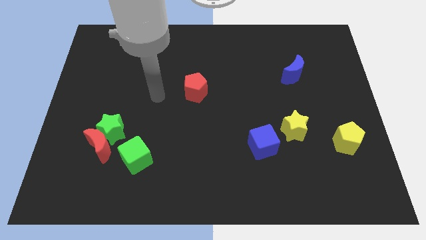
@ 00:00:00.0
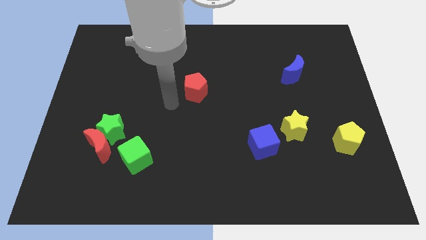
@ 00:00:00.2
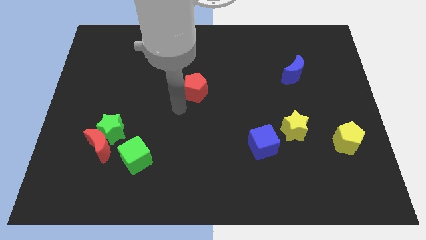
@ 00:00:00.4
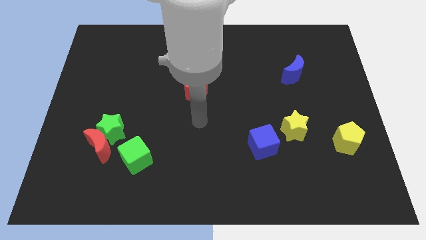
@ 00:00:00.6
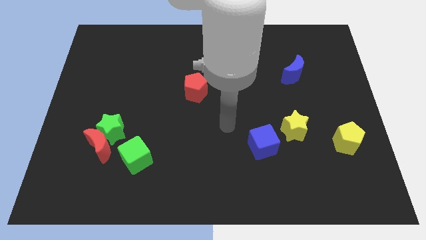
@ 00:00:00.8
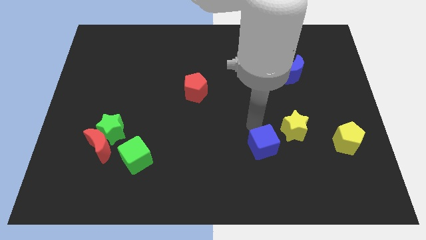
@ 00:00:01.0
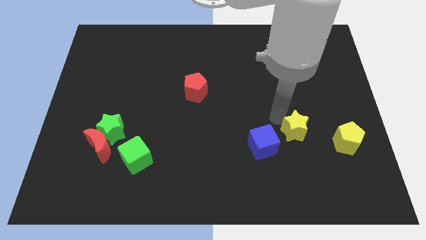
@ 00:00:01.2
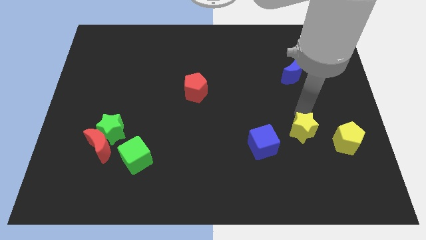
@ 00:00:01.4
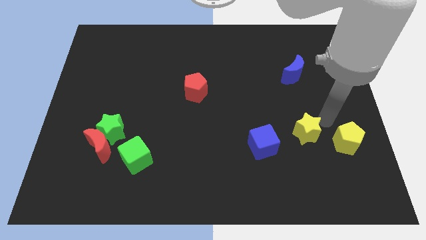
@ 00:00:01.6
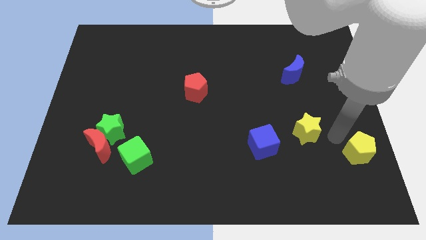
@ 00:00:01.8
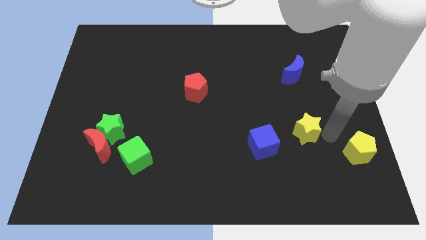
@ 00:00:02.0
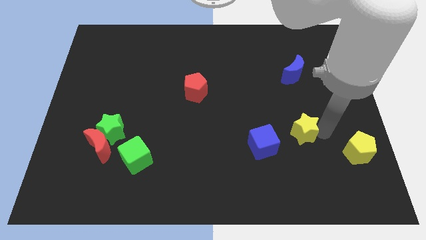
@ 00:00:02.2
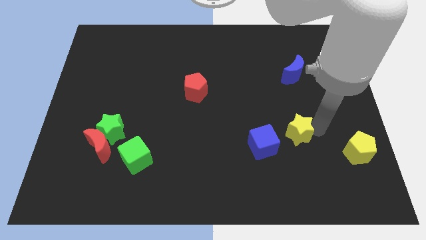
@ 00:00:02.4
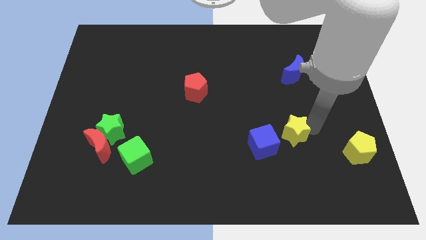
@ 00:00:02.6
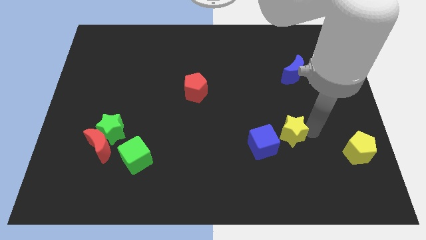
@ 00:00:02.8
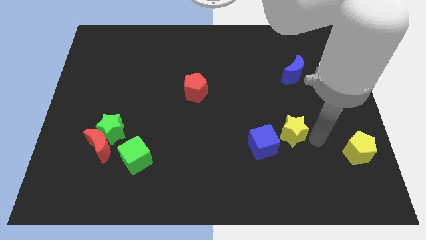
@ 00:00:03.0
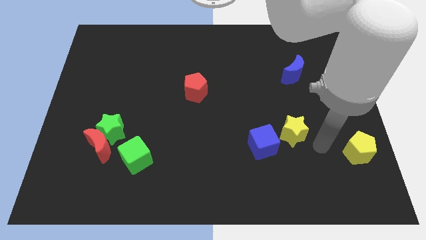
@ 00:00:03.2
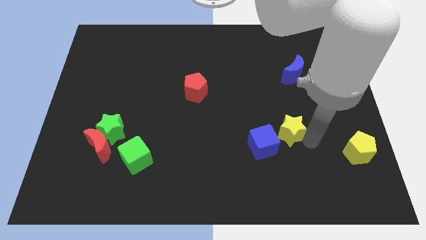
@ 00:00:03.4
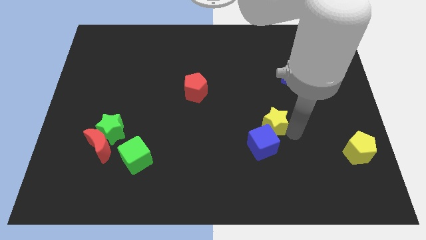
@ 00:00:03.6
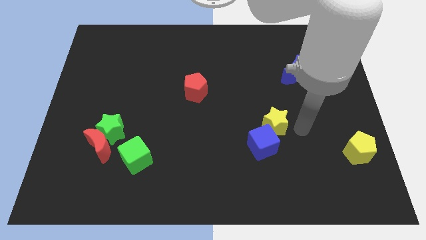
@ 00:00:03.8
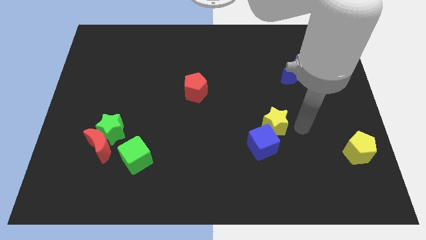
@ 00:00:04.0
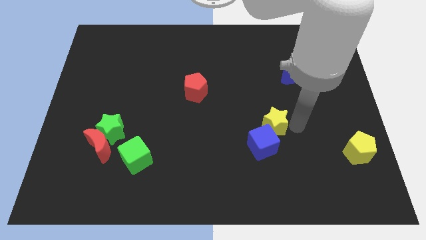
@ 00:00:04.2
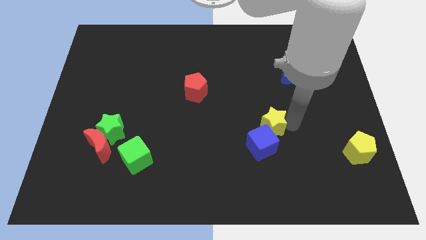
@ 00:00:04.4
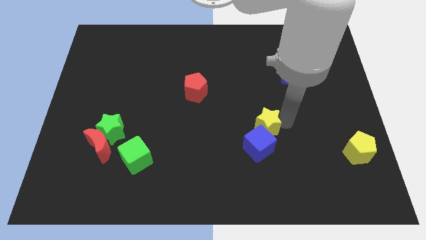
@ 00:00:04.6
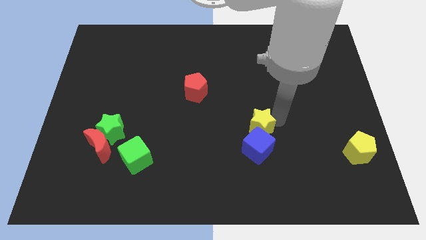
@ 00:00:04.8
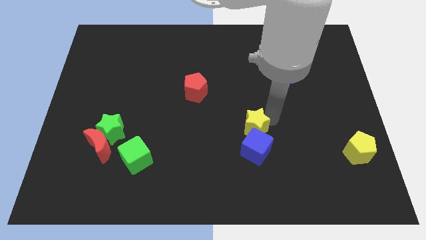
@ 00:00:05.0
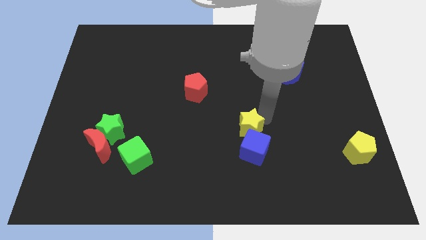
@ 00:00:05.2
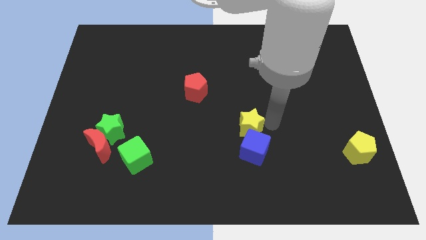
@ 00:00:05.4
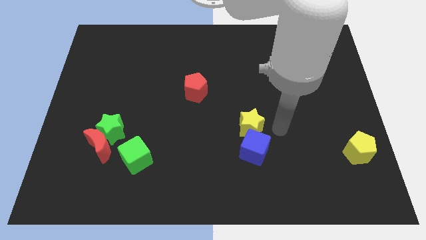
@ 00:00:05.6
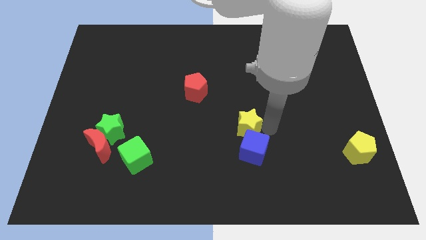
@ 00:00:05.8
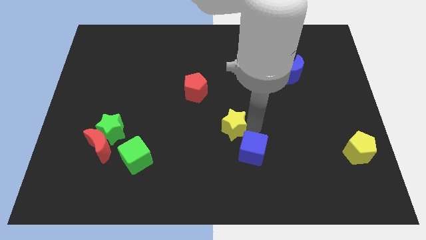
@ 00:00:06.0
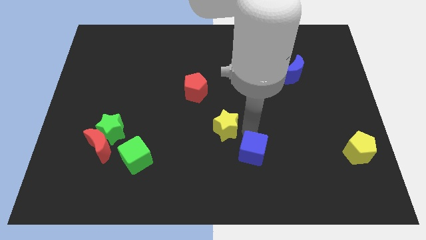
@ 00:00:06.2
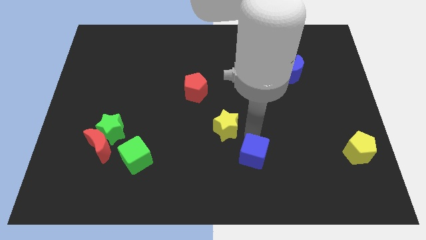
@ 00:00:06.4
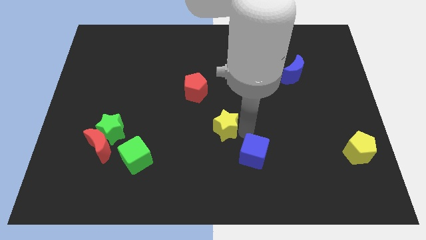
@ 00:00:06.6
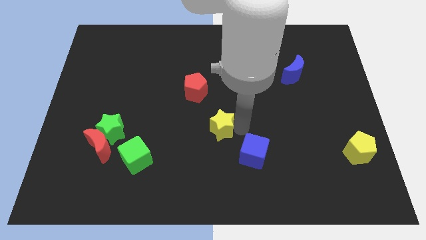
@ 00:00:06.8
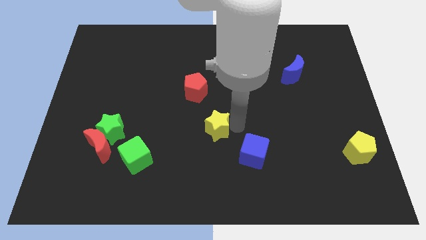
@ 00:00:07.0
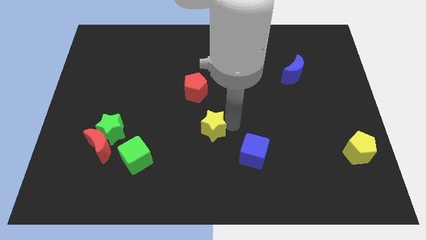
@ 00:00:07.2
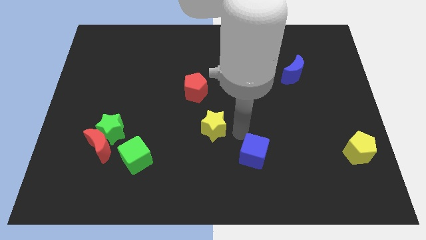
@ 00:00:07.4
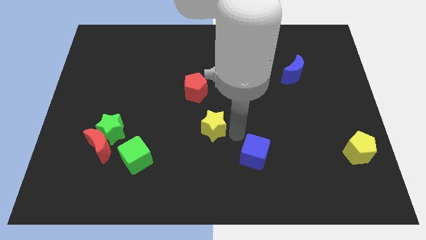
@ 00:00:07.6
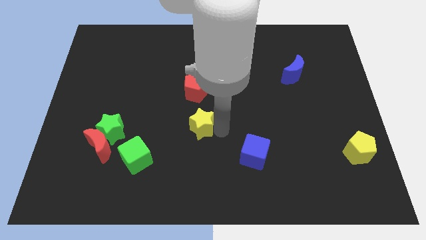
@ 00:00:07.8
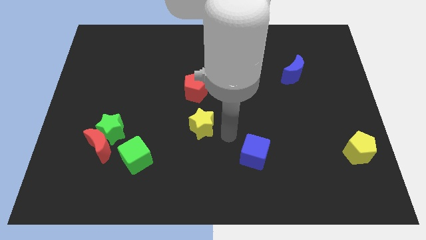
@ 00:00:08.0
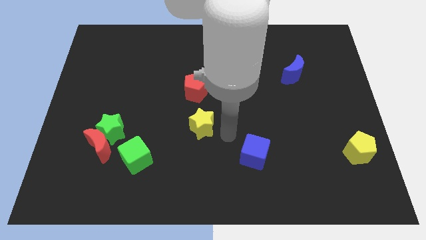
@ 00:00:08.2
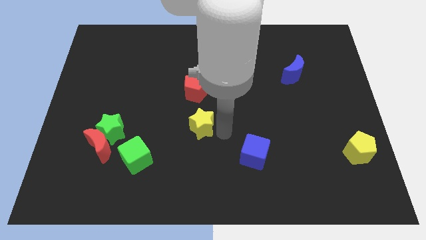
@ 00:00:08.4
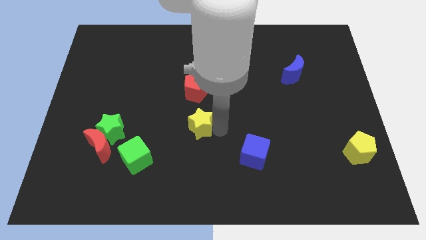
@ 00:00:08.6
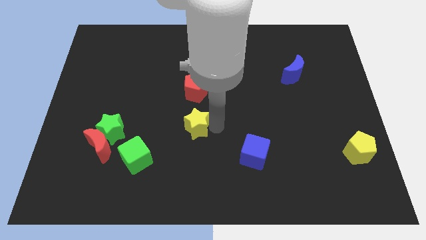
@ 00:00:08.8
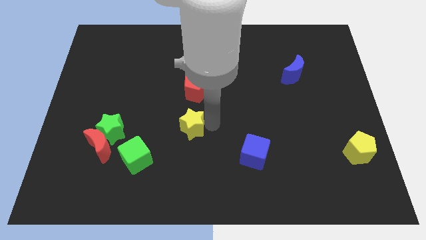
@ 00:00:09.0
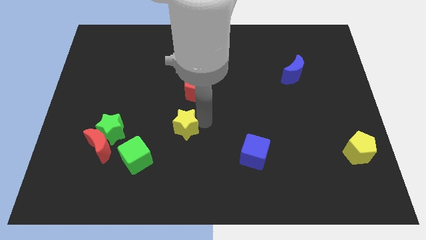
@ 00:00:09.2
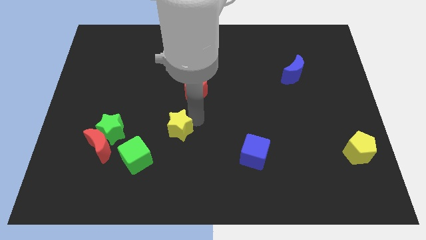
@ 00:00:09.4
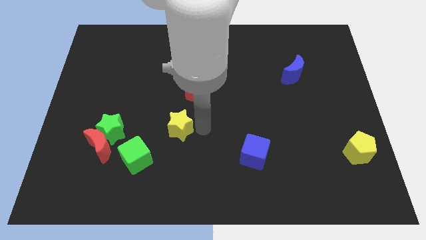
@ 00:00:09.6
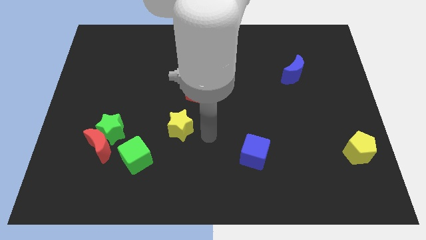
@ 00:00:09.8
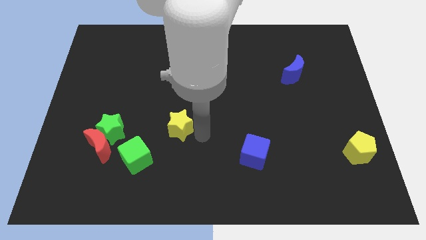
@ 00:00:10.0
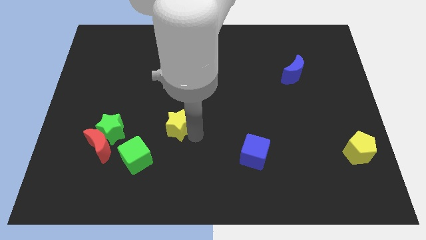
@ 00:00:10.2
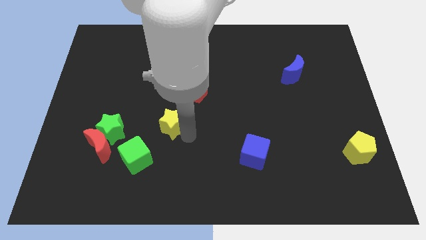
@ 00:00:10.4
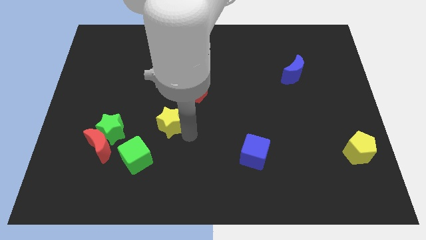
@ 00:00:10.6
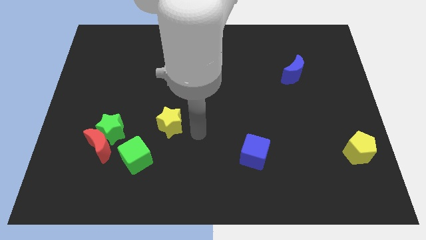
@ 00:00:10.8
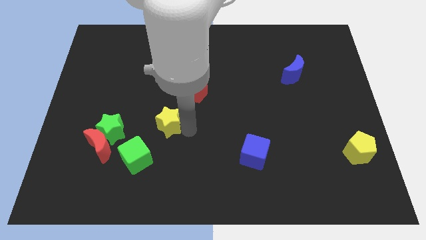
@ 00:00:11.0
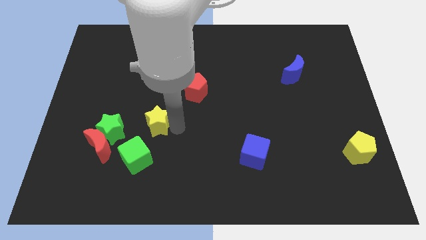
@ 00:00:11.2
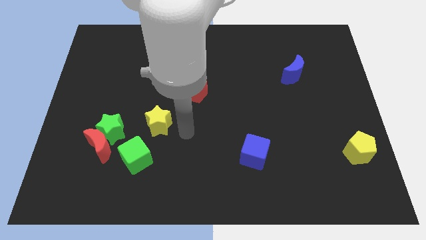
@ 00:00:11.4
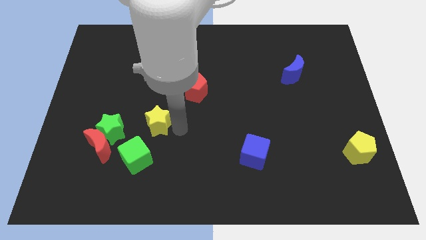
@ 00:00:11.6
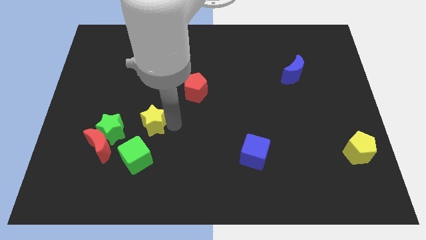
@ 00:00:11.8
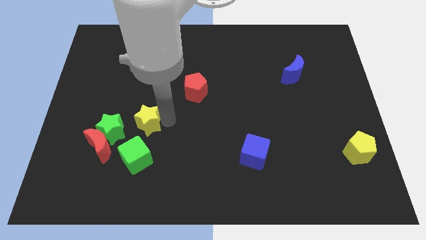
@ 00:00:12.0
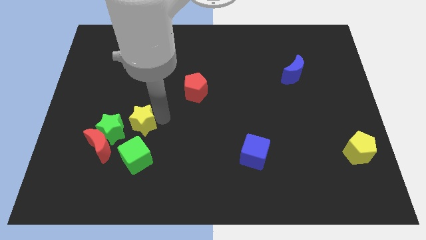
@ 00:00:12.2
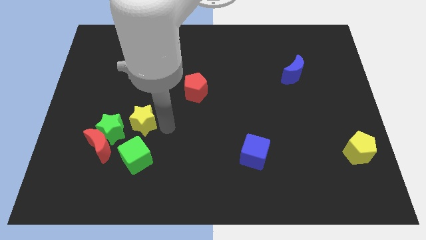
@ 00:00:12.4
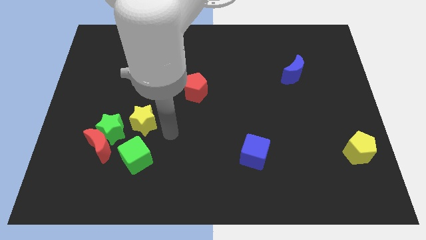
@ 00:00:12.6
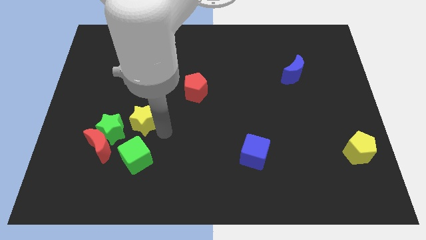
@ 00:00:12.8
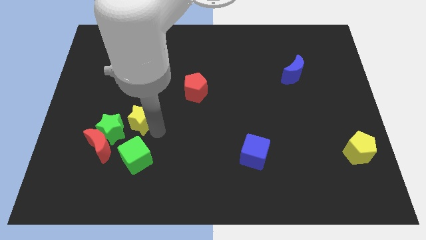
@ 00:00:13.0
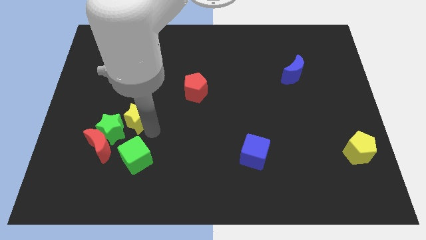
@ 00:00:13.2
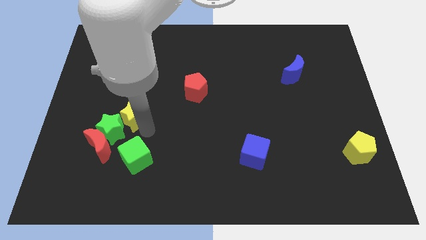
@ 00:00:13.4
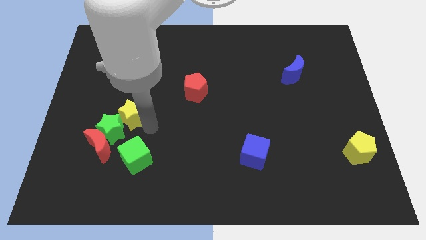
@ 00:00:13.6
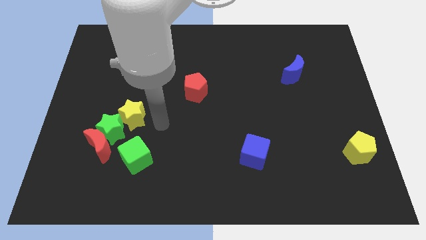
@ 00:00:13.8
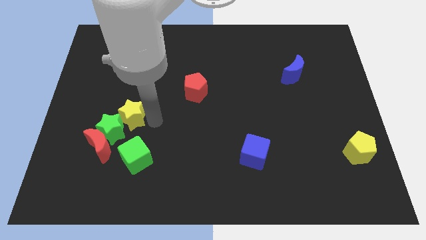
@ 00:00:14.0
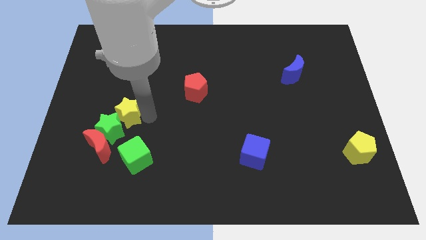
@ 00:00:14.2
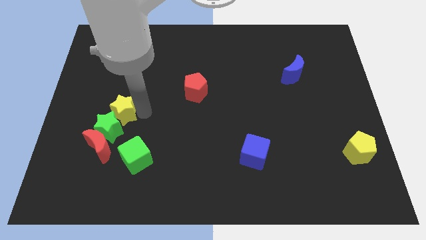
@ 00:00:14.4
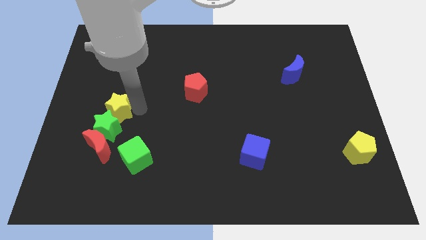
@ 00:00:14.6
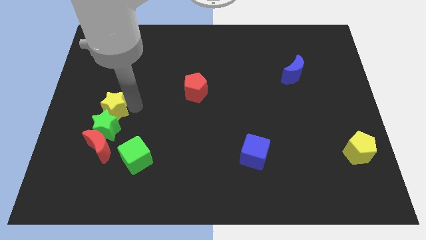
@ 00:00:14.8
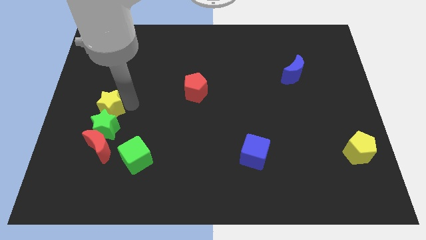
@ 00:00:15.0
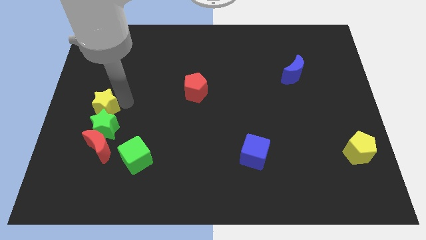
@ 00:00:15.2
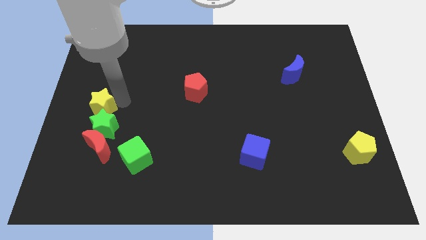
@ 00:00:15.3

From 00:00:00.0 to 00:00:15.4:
put the yellow star to the center left
